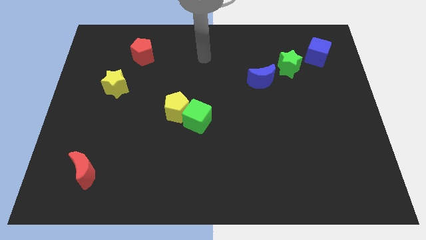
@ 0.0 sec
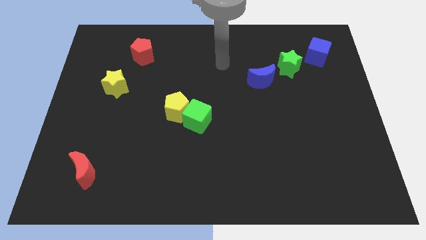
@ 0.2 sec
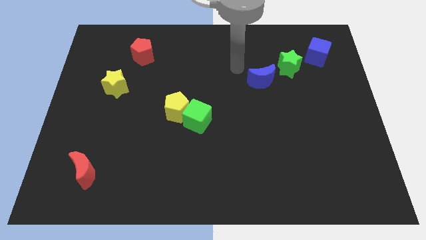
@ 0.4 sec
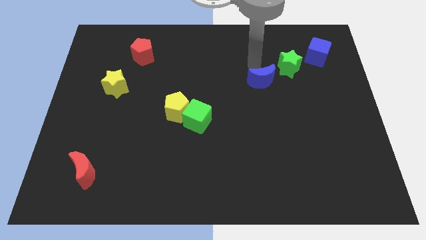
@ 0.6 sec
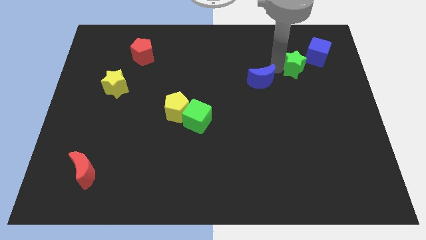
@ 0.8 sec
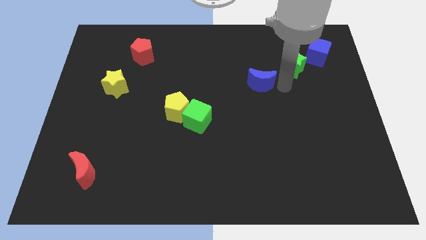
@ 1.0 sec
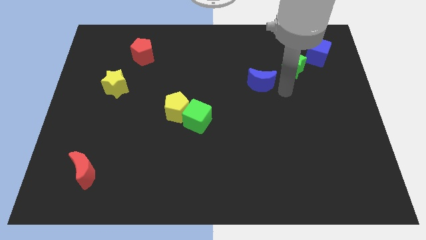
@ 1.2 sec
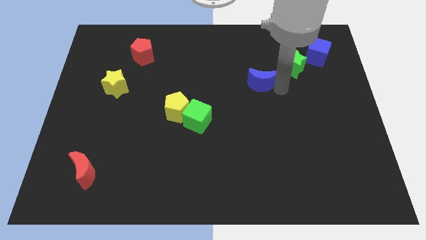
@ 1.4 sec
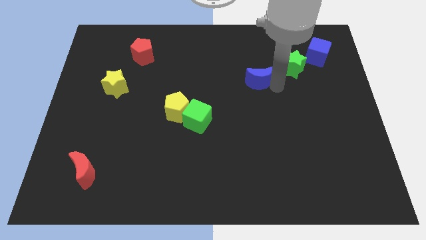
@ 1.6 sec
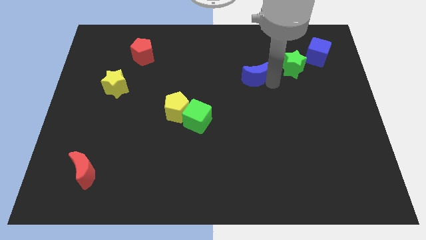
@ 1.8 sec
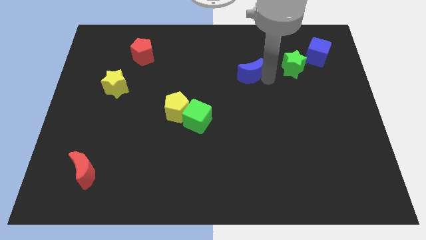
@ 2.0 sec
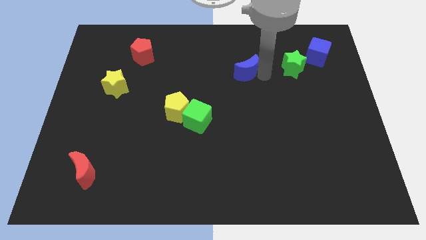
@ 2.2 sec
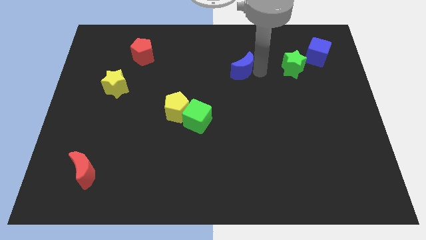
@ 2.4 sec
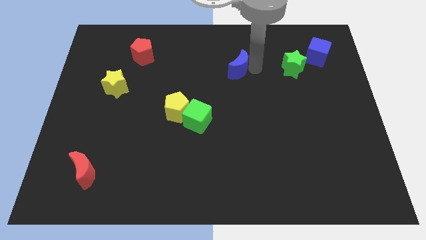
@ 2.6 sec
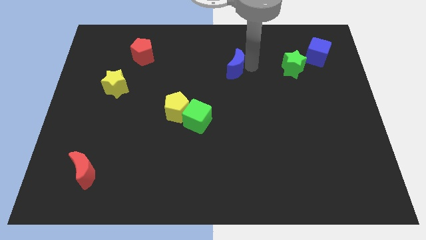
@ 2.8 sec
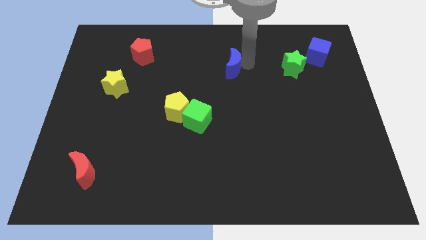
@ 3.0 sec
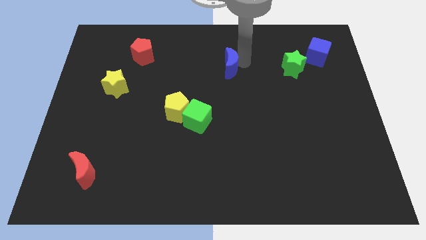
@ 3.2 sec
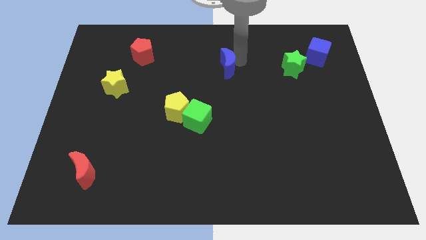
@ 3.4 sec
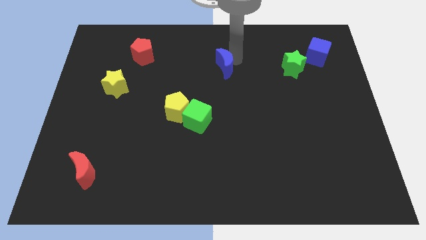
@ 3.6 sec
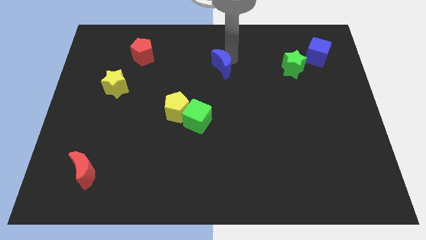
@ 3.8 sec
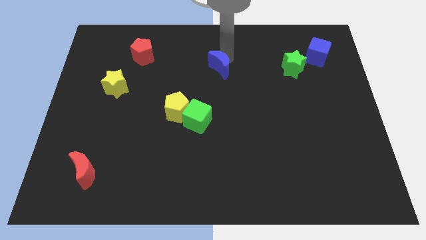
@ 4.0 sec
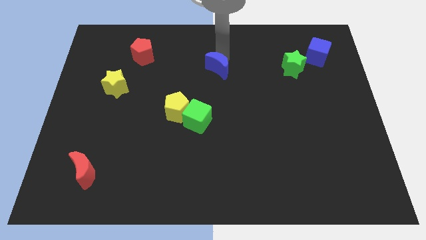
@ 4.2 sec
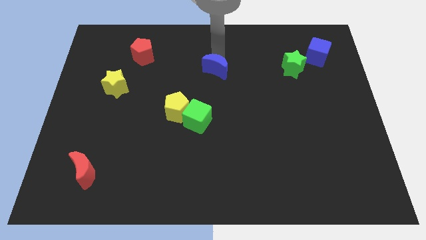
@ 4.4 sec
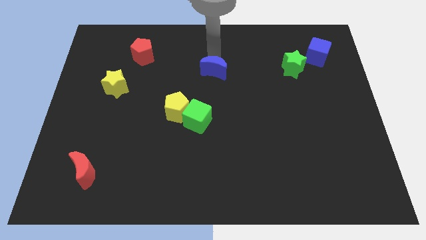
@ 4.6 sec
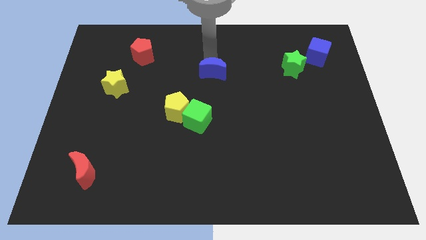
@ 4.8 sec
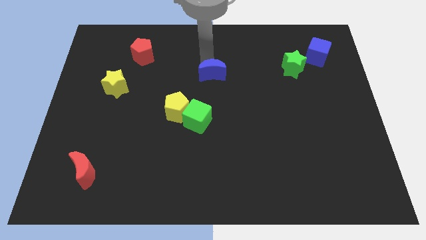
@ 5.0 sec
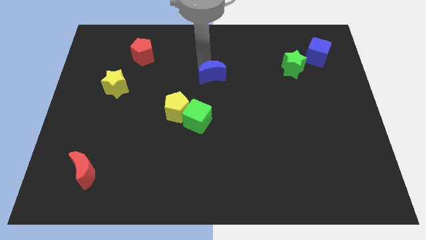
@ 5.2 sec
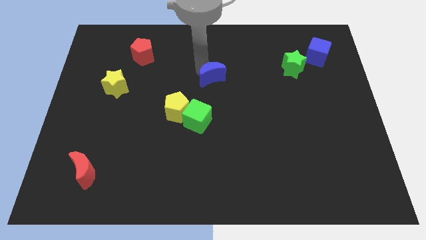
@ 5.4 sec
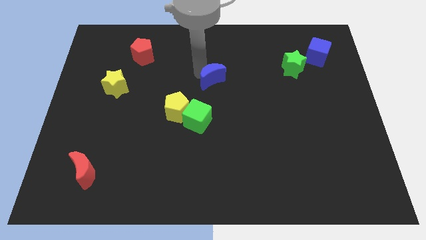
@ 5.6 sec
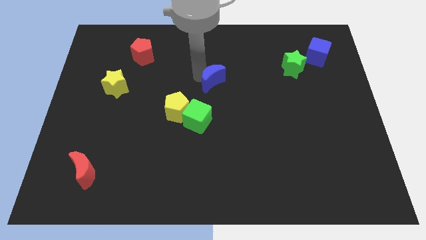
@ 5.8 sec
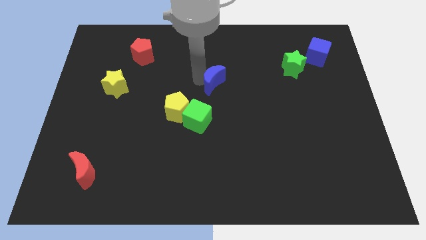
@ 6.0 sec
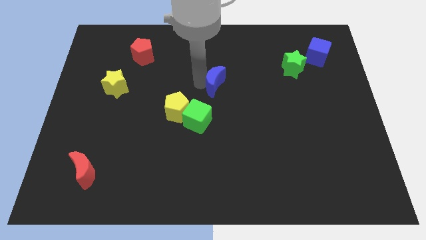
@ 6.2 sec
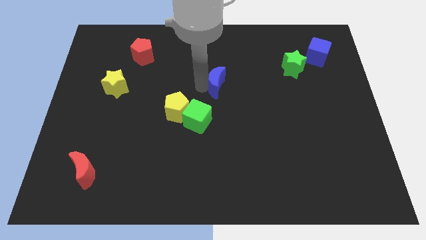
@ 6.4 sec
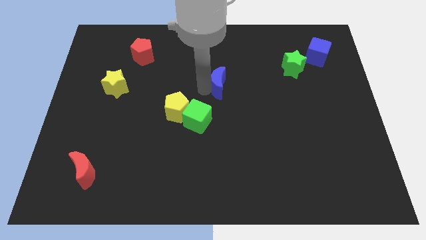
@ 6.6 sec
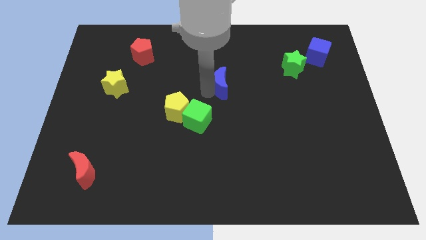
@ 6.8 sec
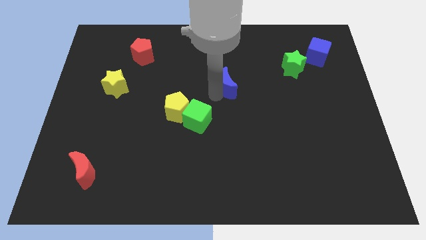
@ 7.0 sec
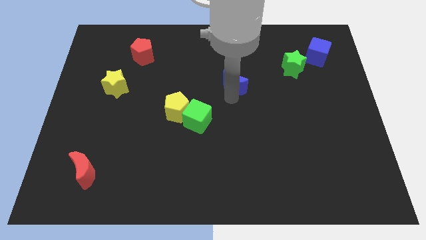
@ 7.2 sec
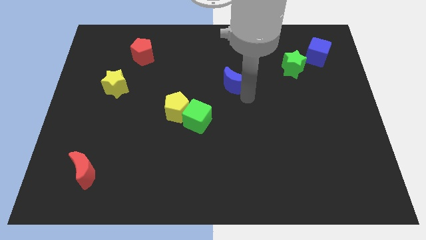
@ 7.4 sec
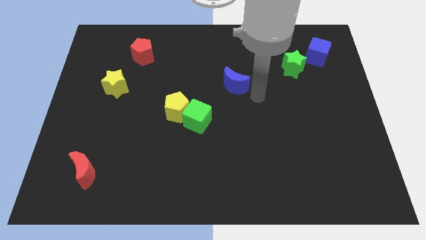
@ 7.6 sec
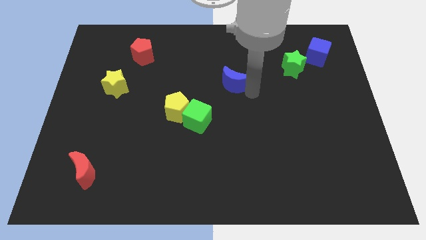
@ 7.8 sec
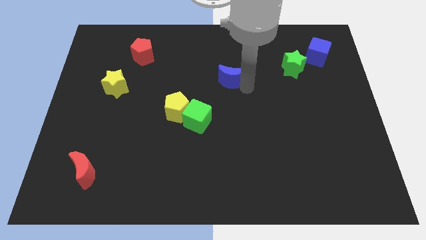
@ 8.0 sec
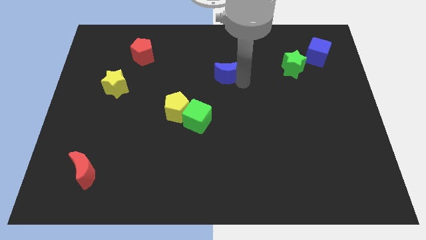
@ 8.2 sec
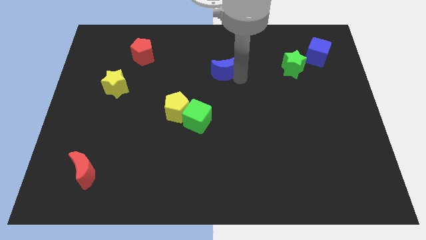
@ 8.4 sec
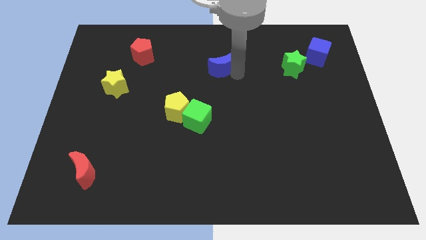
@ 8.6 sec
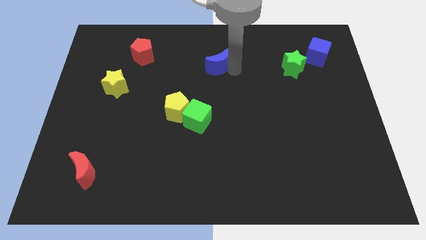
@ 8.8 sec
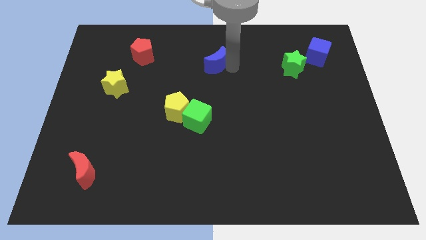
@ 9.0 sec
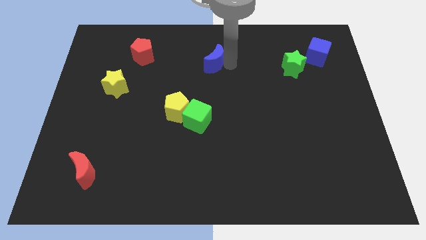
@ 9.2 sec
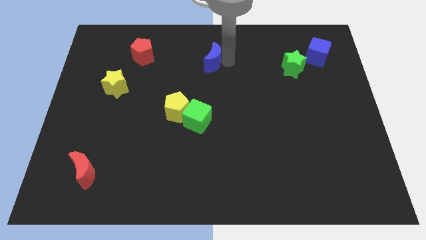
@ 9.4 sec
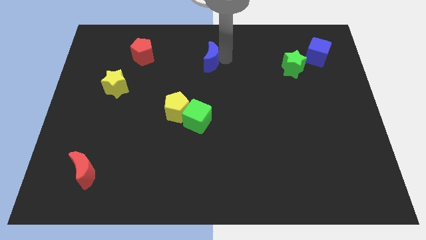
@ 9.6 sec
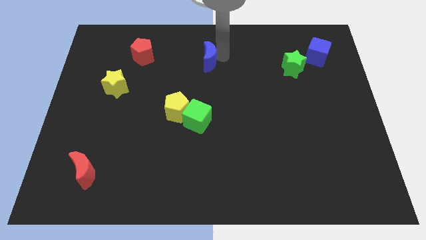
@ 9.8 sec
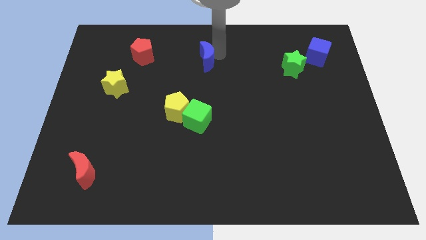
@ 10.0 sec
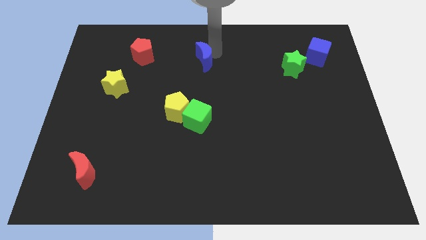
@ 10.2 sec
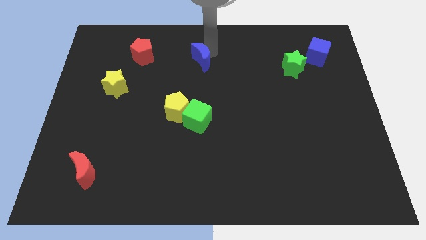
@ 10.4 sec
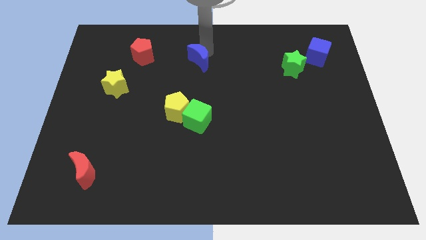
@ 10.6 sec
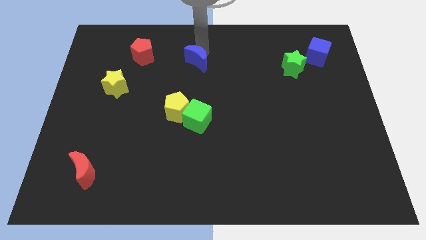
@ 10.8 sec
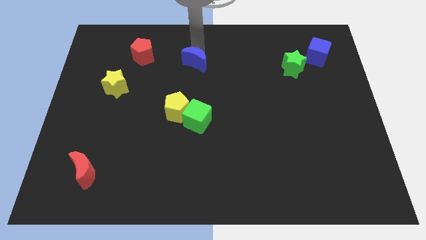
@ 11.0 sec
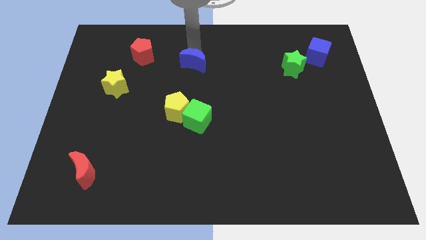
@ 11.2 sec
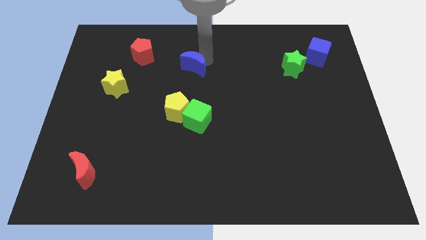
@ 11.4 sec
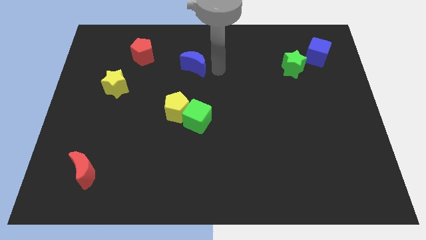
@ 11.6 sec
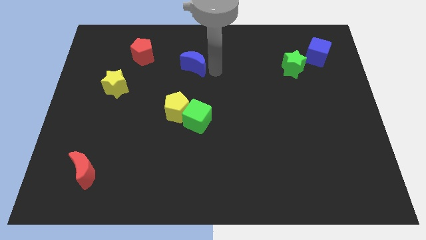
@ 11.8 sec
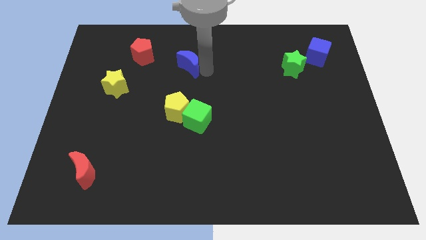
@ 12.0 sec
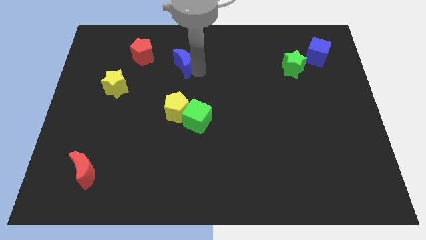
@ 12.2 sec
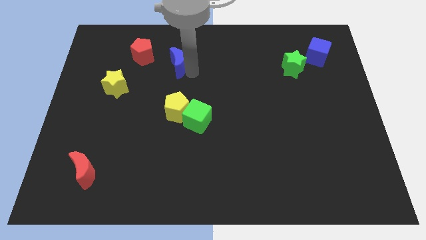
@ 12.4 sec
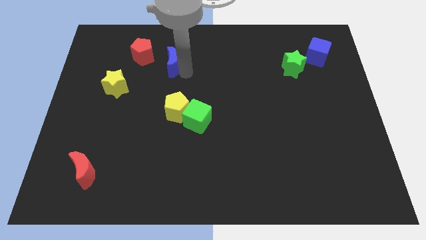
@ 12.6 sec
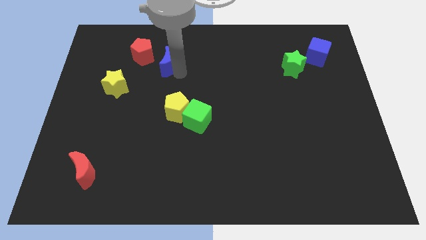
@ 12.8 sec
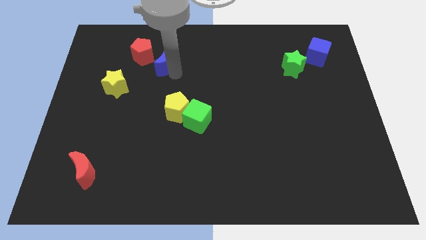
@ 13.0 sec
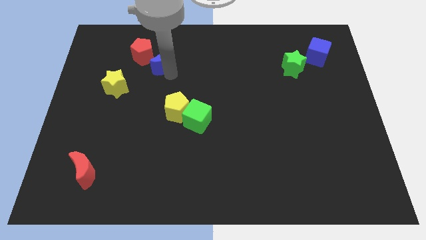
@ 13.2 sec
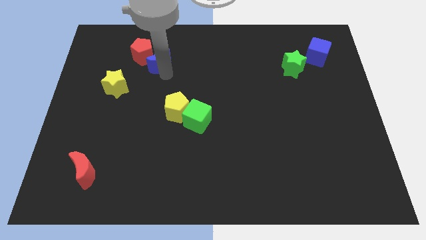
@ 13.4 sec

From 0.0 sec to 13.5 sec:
put the blue moon to the red pentagon
